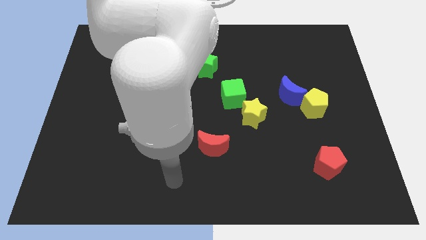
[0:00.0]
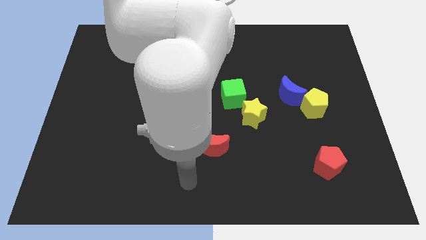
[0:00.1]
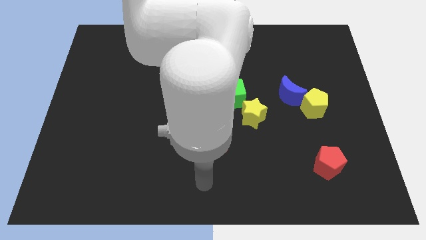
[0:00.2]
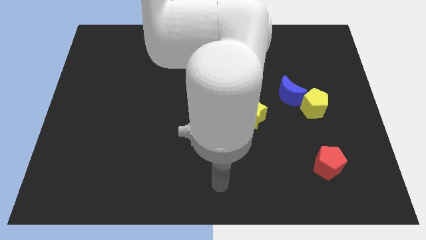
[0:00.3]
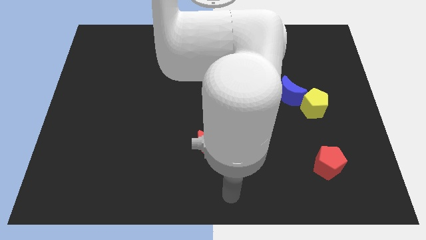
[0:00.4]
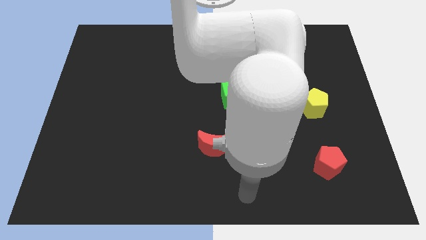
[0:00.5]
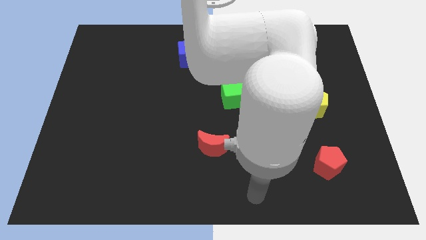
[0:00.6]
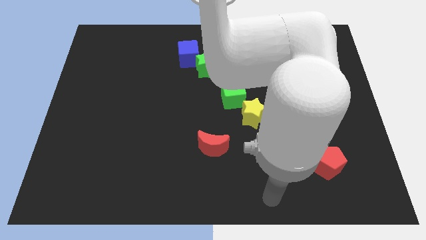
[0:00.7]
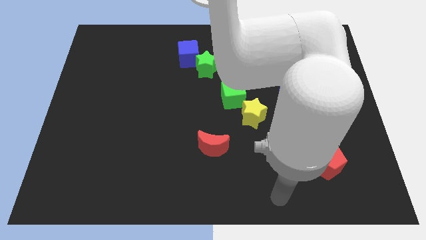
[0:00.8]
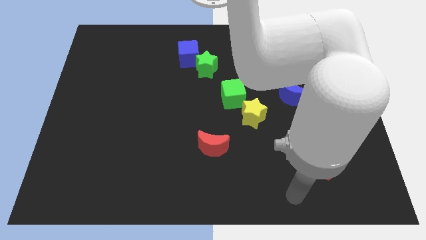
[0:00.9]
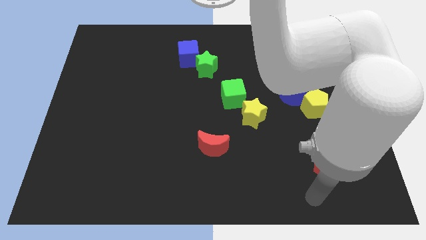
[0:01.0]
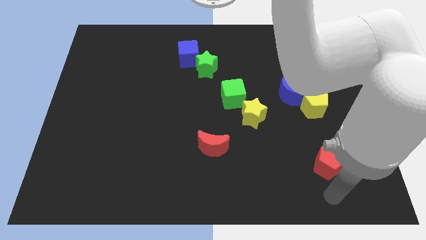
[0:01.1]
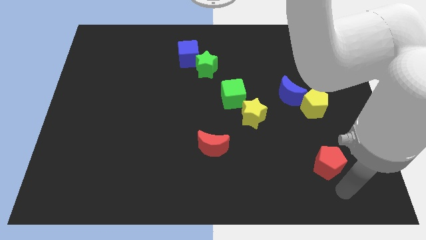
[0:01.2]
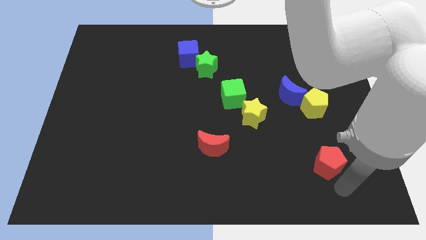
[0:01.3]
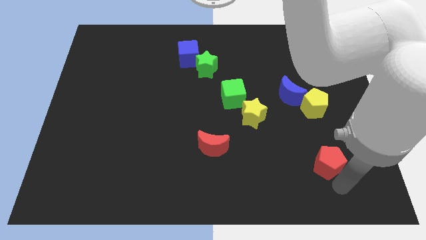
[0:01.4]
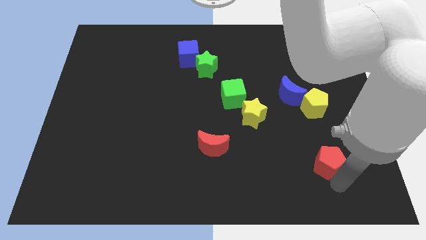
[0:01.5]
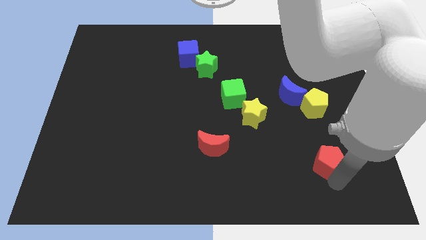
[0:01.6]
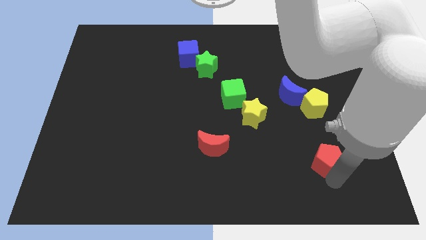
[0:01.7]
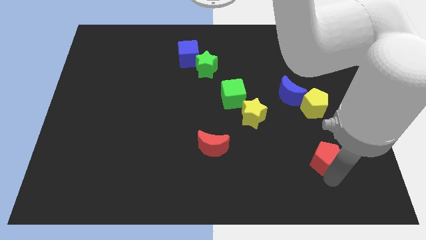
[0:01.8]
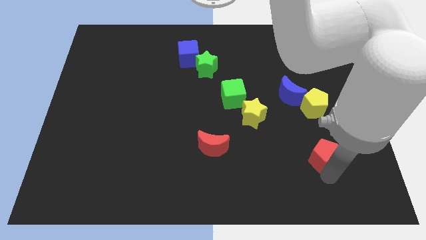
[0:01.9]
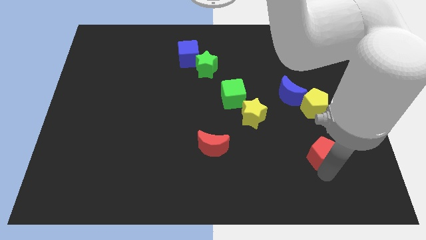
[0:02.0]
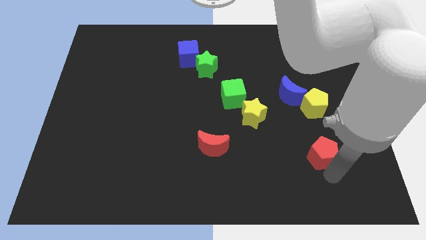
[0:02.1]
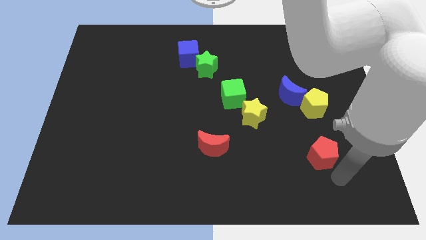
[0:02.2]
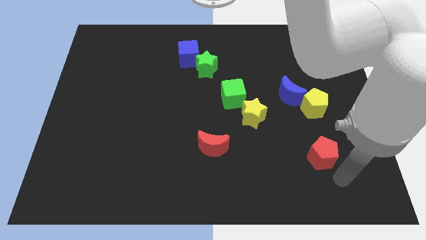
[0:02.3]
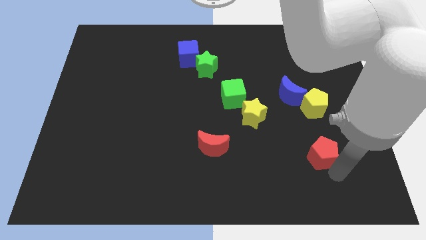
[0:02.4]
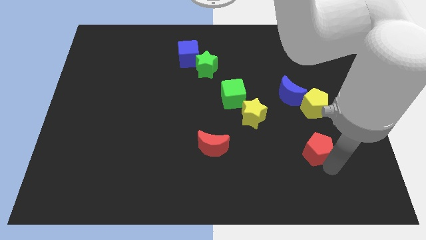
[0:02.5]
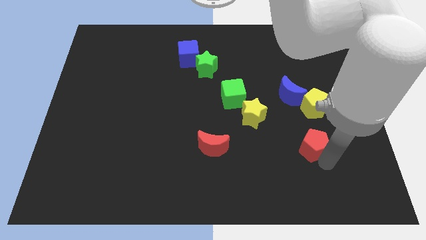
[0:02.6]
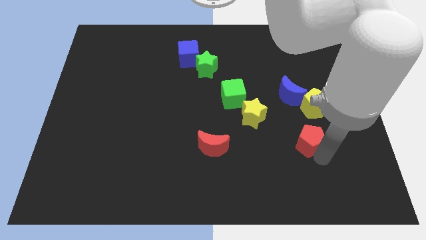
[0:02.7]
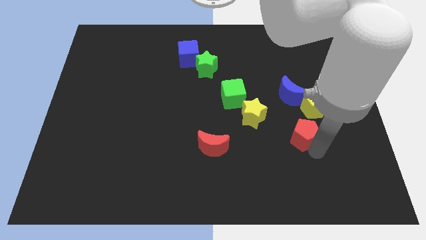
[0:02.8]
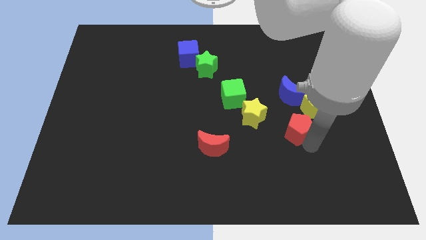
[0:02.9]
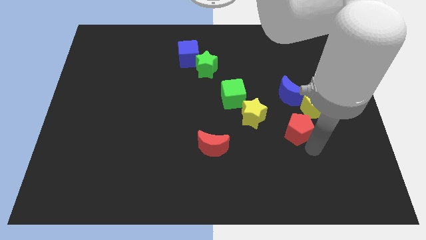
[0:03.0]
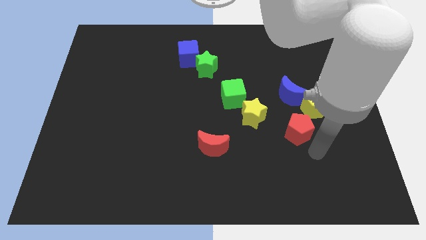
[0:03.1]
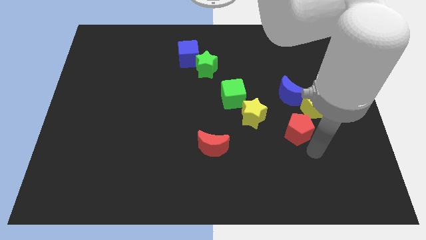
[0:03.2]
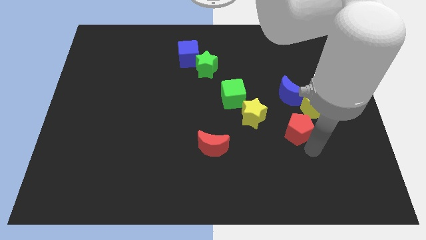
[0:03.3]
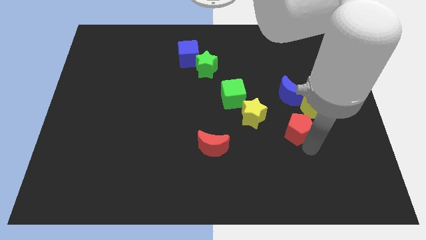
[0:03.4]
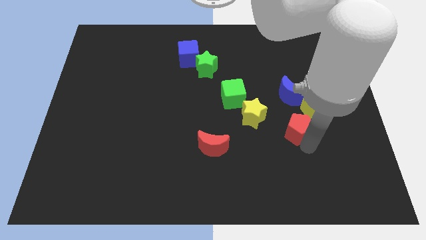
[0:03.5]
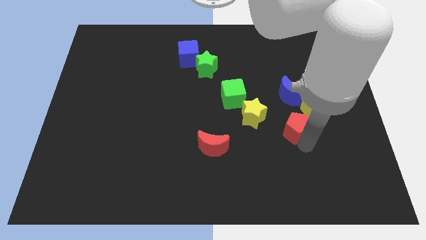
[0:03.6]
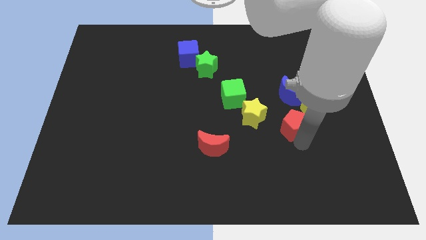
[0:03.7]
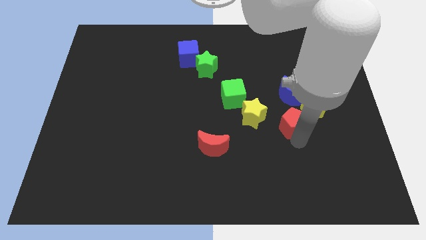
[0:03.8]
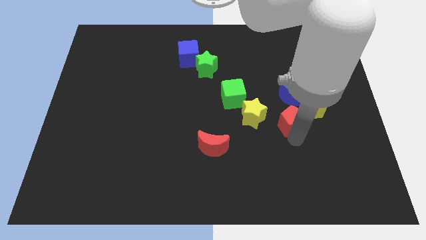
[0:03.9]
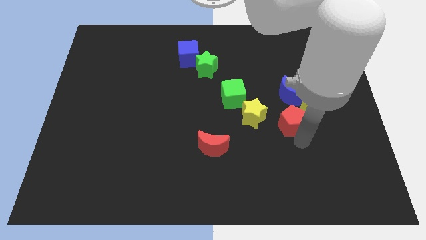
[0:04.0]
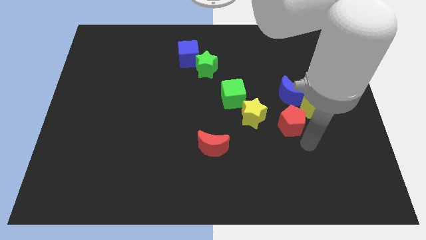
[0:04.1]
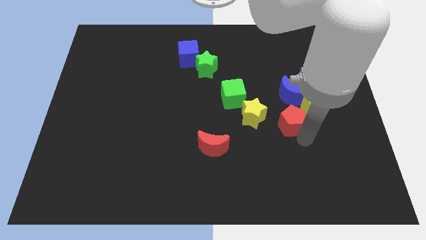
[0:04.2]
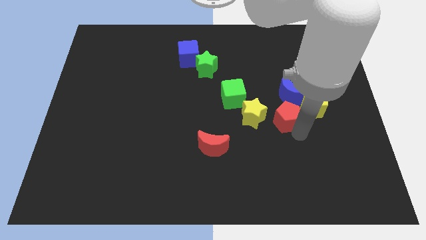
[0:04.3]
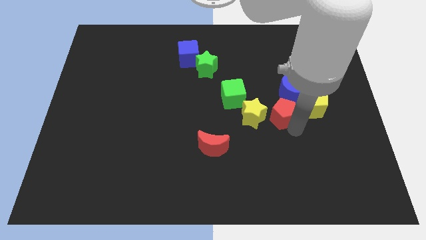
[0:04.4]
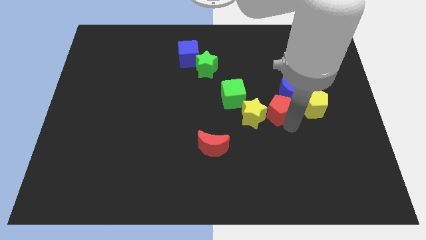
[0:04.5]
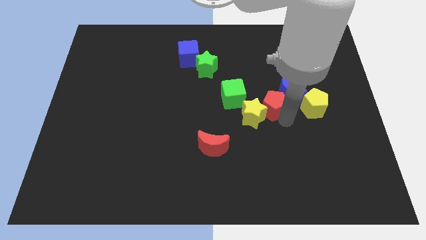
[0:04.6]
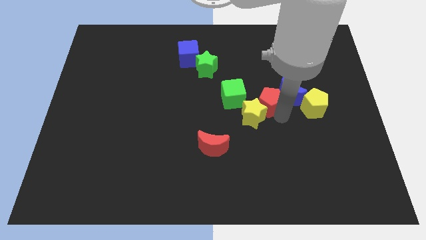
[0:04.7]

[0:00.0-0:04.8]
slide the red pentagon to the top of the yellow star

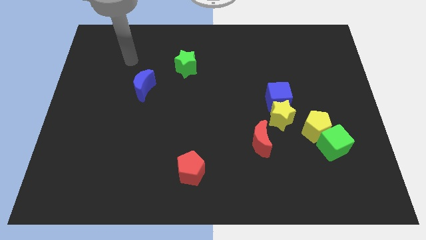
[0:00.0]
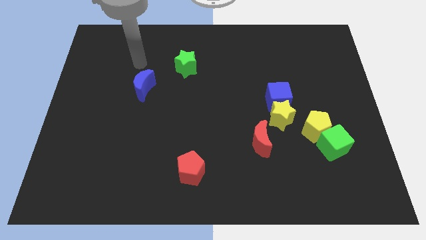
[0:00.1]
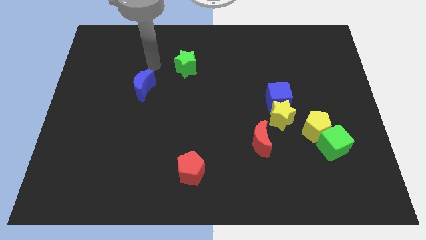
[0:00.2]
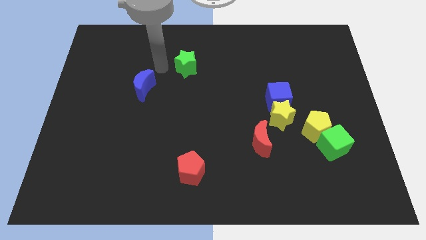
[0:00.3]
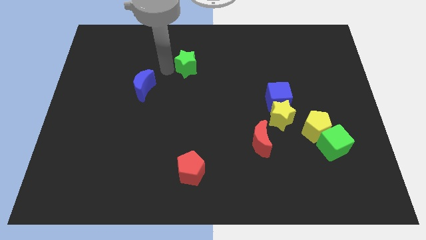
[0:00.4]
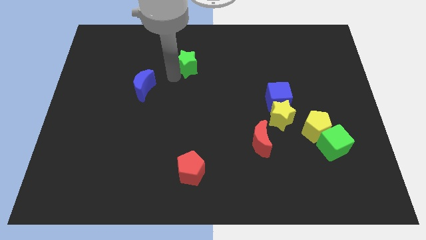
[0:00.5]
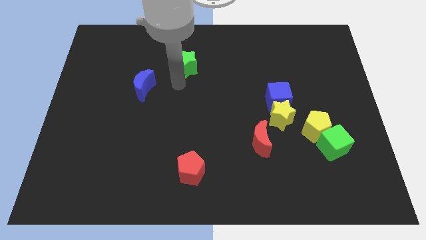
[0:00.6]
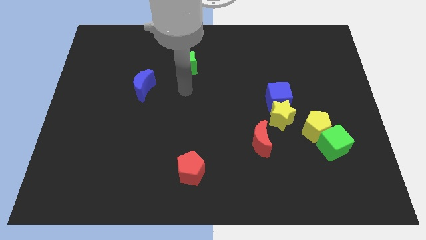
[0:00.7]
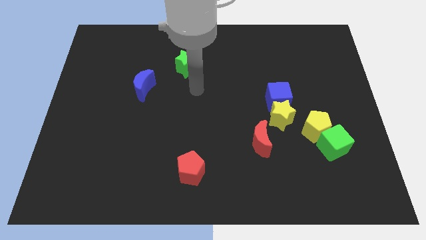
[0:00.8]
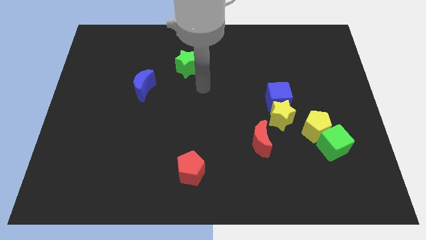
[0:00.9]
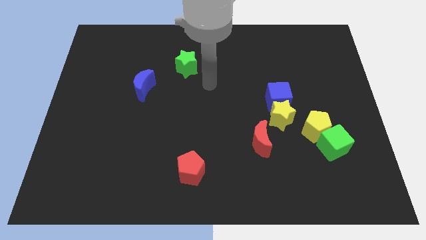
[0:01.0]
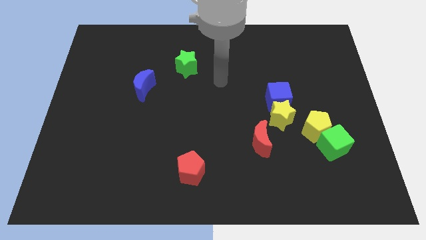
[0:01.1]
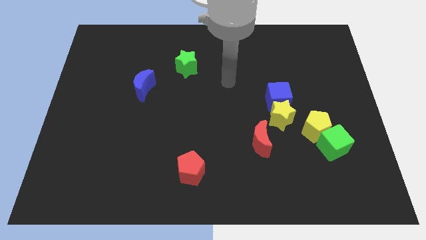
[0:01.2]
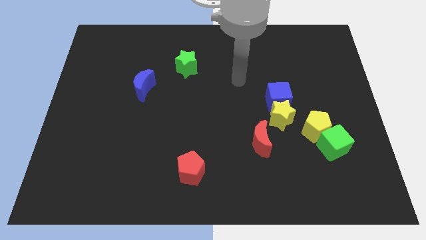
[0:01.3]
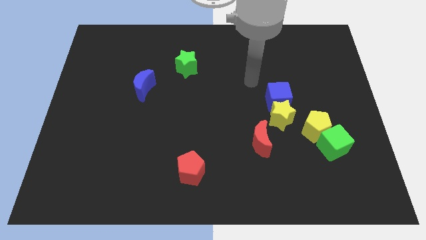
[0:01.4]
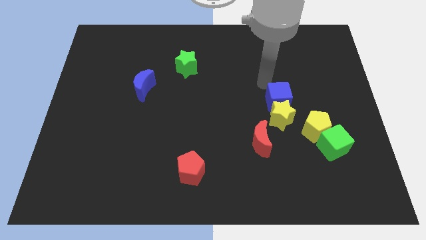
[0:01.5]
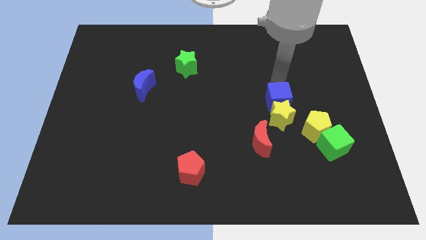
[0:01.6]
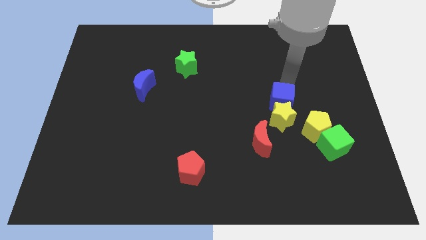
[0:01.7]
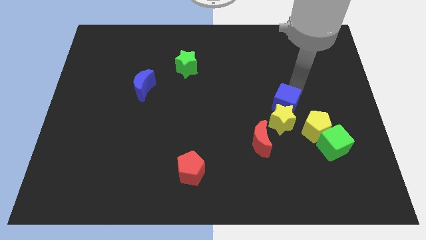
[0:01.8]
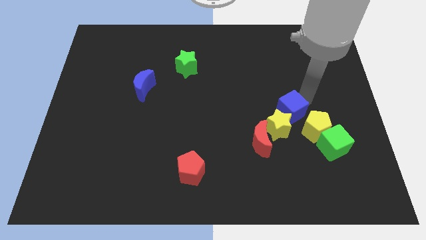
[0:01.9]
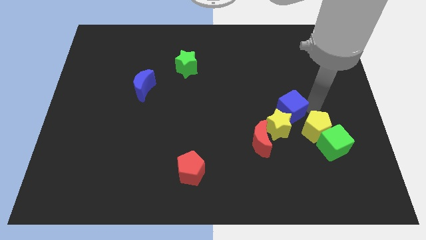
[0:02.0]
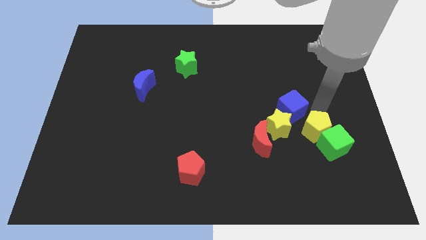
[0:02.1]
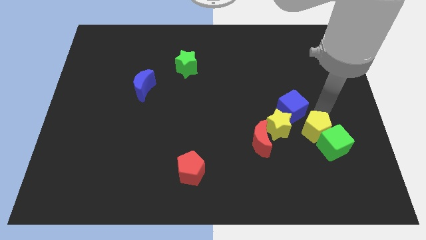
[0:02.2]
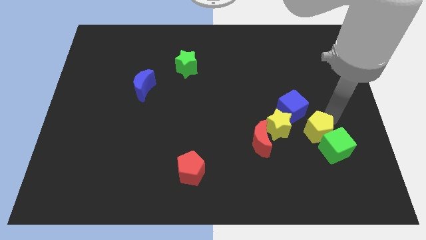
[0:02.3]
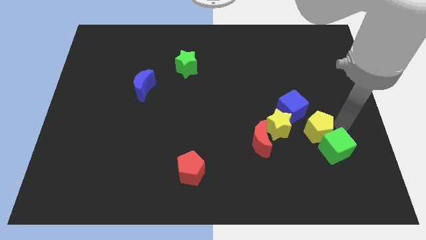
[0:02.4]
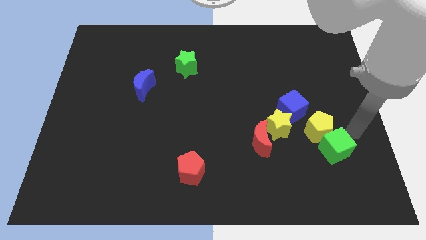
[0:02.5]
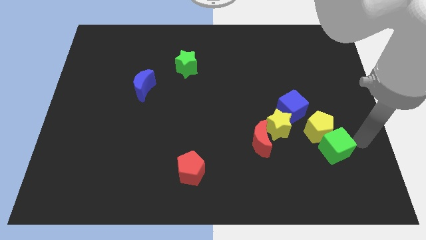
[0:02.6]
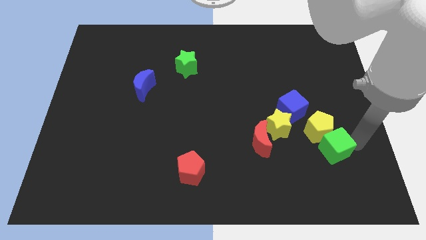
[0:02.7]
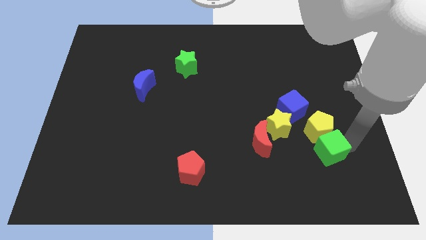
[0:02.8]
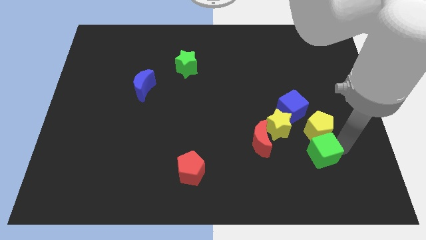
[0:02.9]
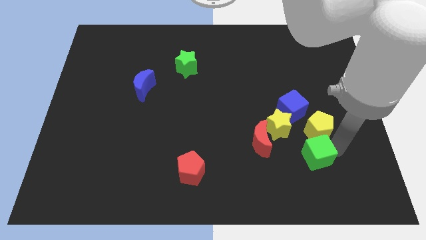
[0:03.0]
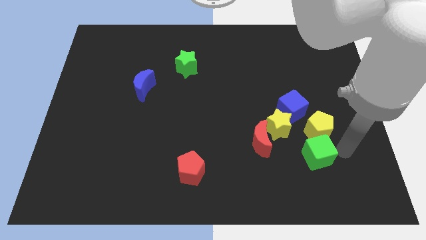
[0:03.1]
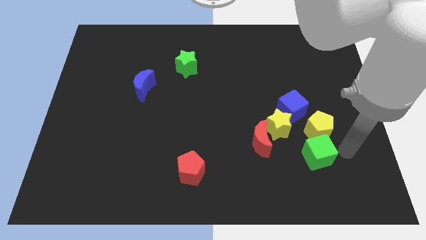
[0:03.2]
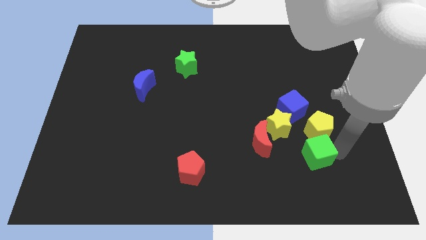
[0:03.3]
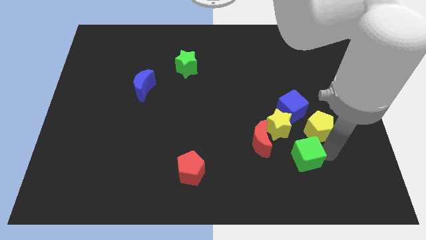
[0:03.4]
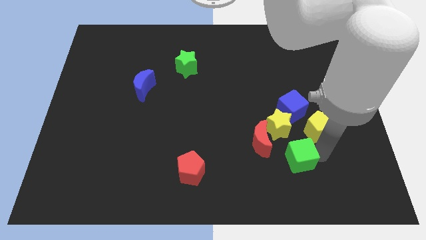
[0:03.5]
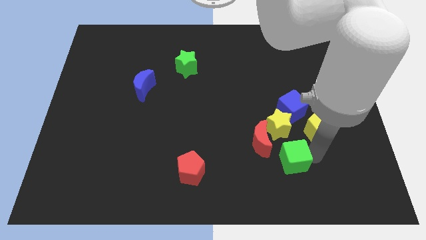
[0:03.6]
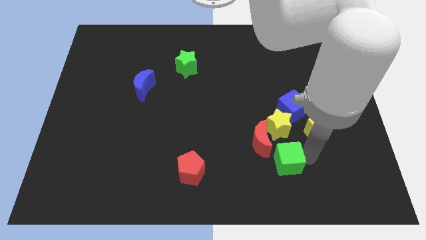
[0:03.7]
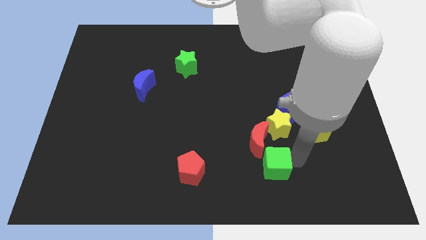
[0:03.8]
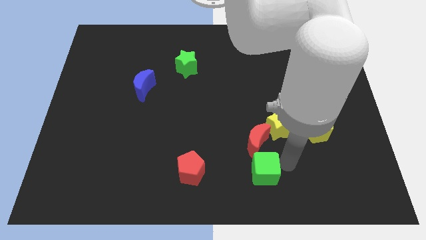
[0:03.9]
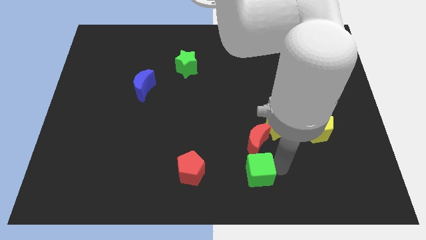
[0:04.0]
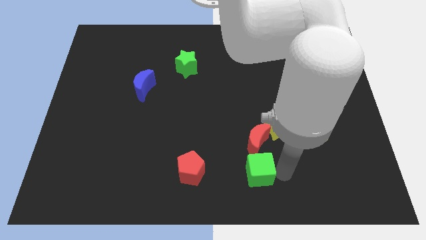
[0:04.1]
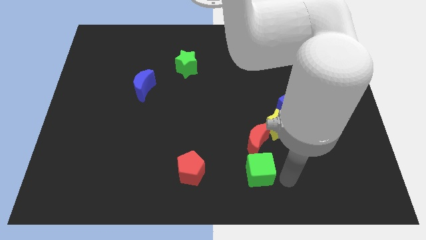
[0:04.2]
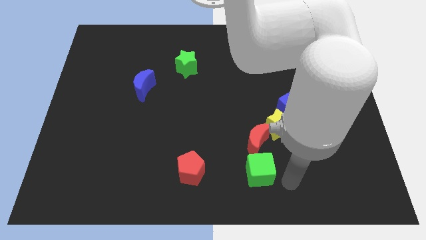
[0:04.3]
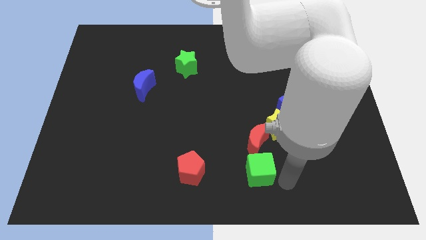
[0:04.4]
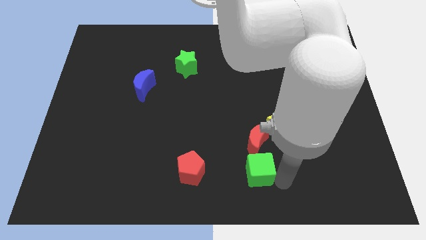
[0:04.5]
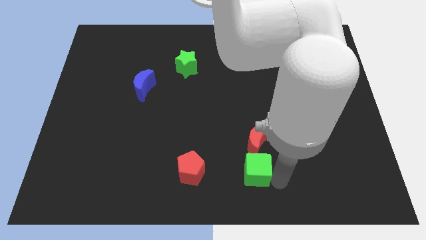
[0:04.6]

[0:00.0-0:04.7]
push the green cube to the bottom left side of the red moon
